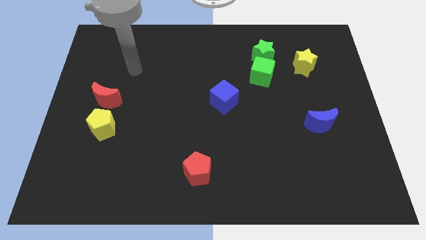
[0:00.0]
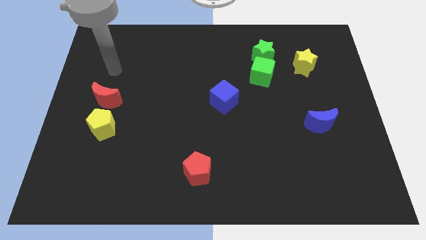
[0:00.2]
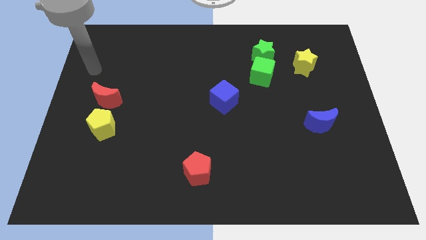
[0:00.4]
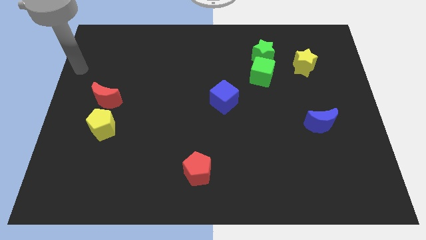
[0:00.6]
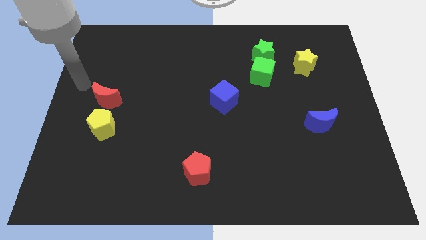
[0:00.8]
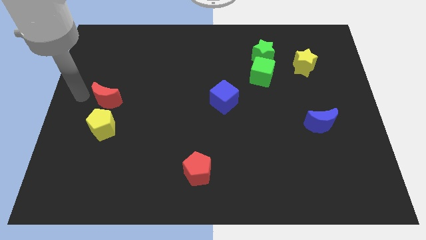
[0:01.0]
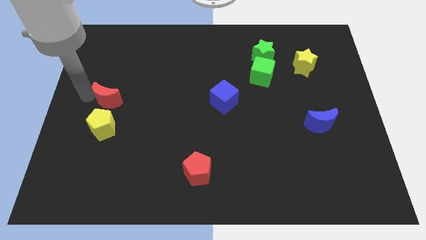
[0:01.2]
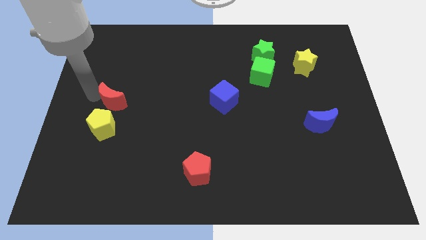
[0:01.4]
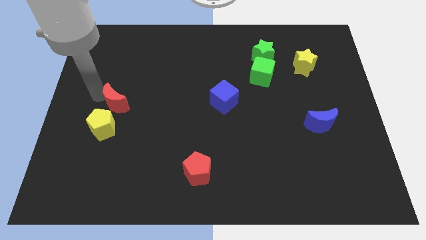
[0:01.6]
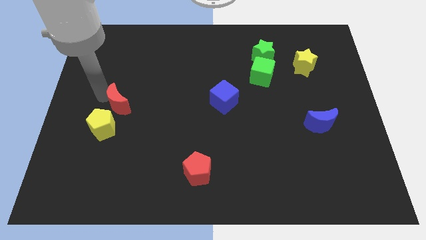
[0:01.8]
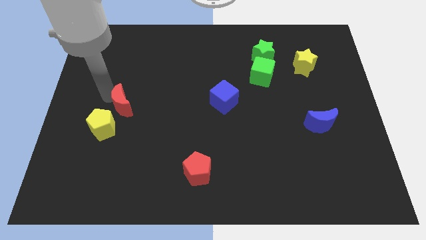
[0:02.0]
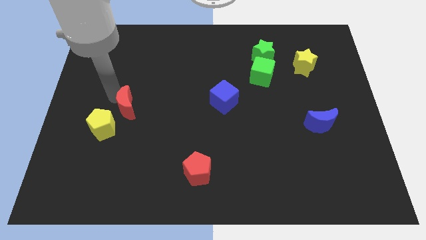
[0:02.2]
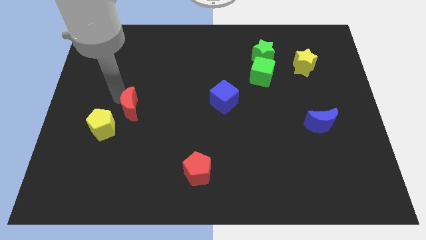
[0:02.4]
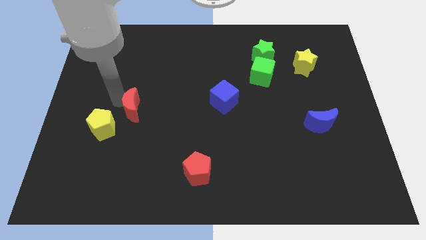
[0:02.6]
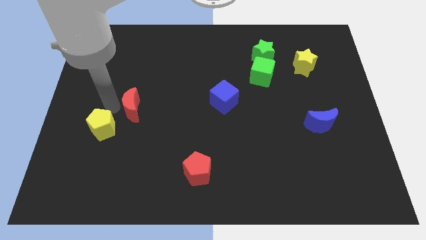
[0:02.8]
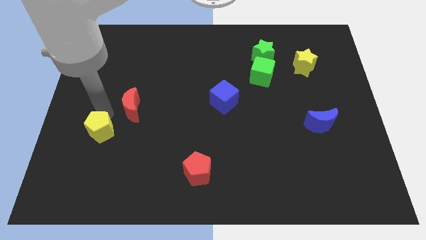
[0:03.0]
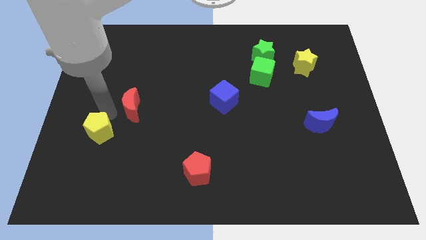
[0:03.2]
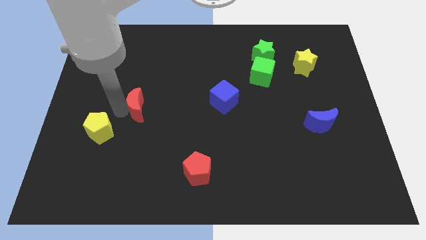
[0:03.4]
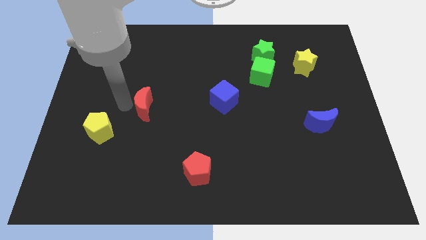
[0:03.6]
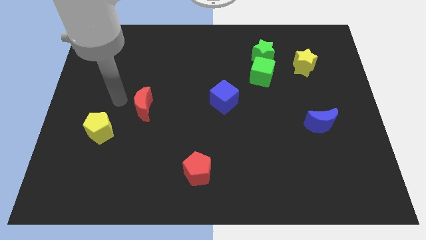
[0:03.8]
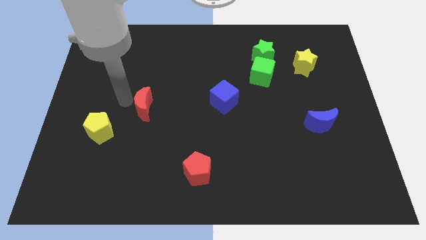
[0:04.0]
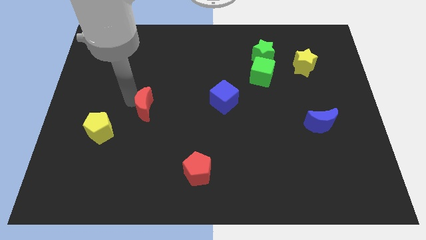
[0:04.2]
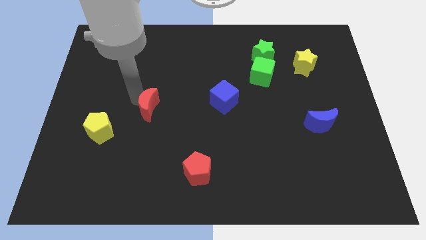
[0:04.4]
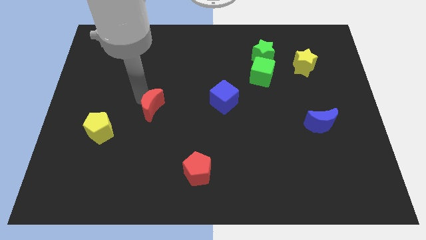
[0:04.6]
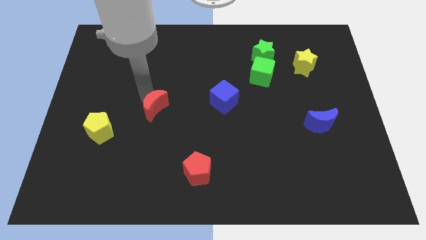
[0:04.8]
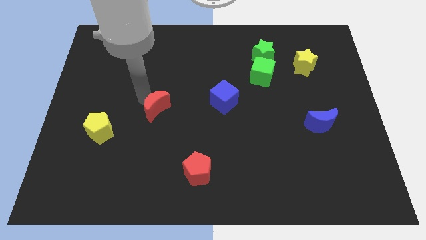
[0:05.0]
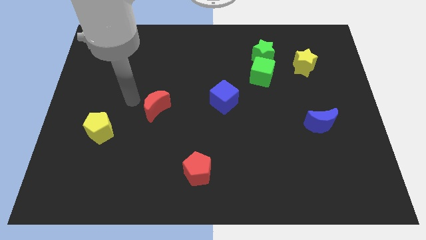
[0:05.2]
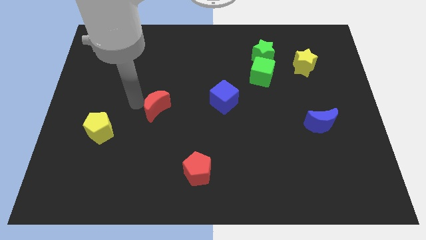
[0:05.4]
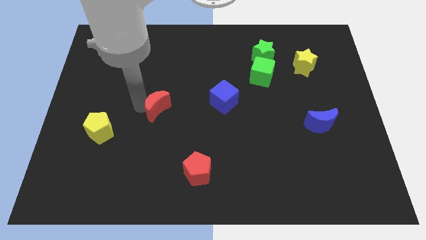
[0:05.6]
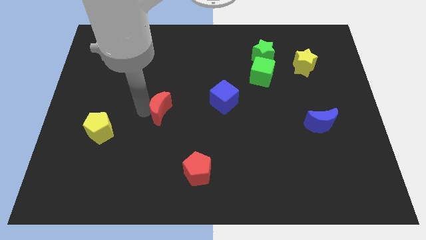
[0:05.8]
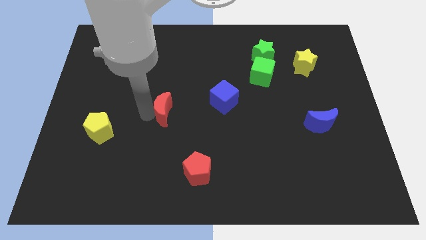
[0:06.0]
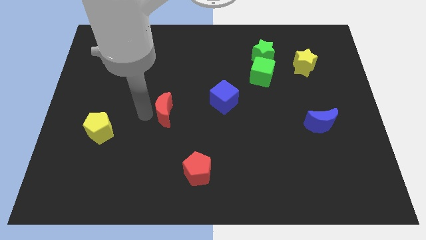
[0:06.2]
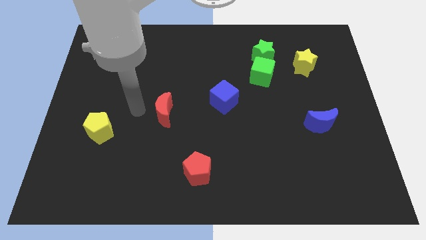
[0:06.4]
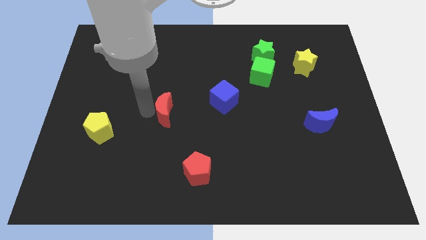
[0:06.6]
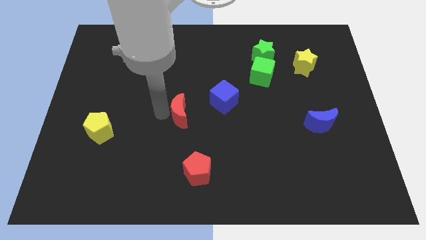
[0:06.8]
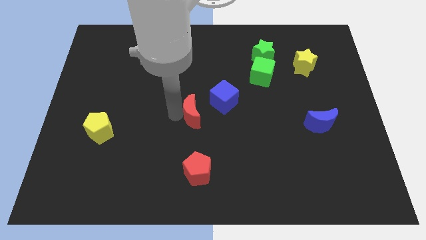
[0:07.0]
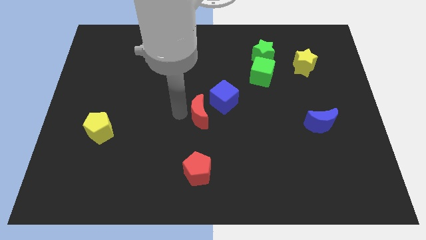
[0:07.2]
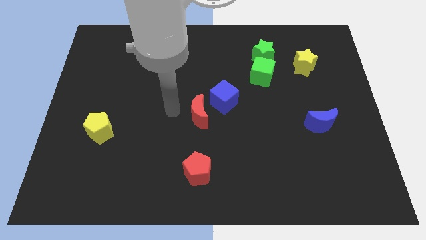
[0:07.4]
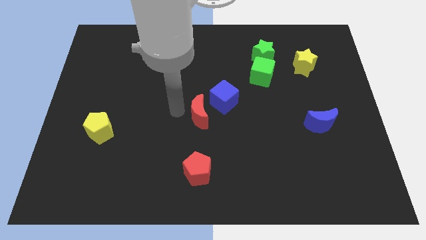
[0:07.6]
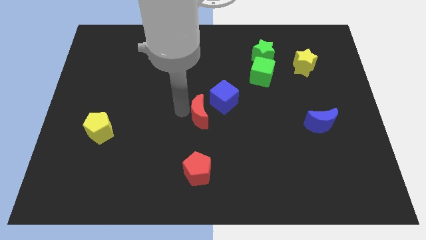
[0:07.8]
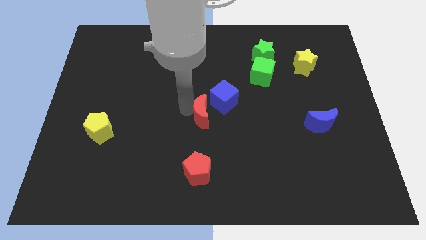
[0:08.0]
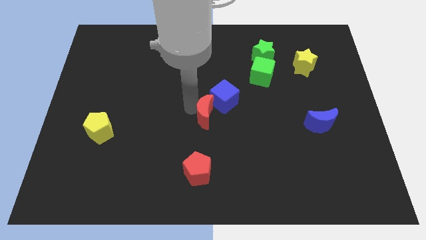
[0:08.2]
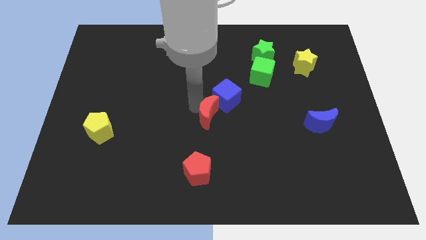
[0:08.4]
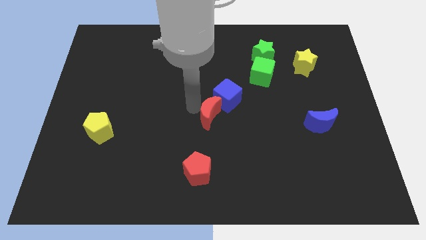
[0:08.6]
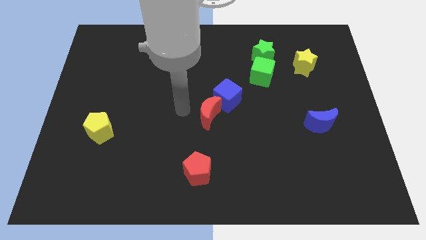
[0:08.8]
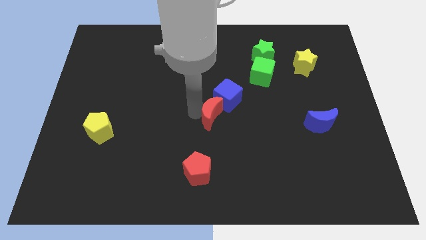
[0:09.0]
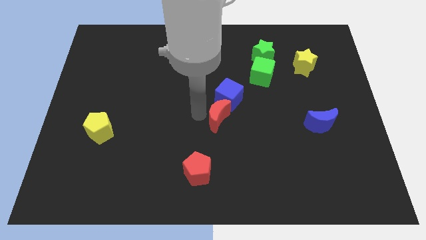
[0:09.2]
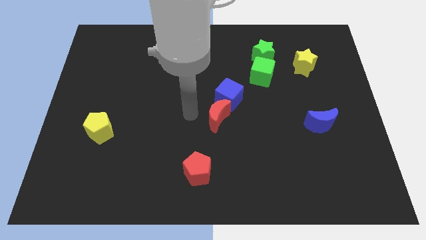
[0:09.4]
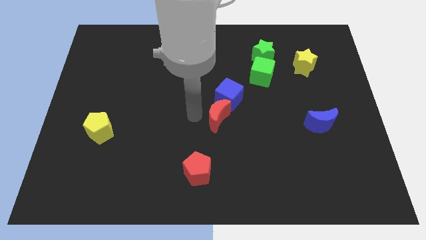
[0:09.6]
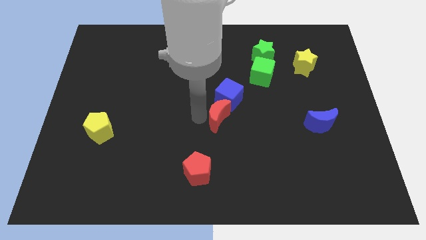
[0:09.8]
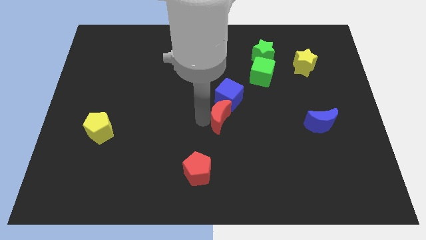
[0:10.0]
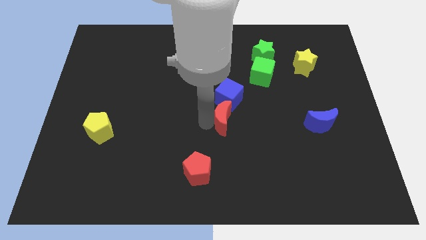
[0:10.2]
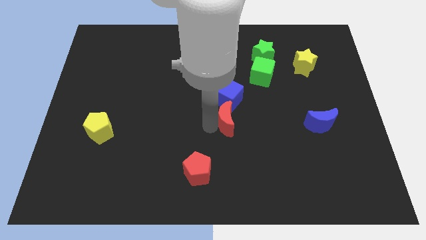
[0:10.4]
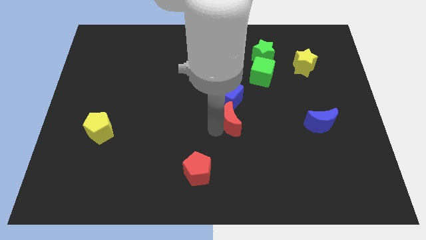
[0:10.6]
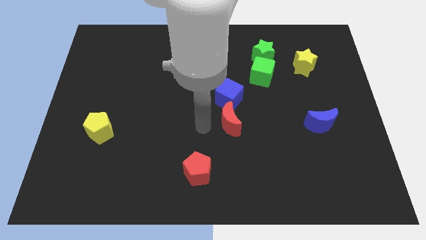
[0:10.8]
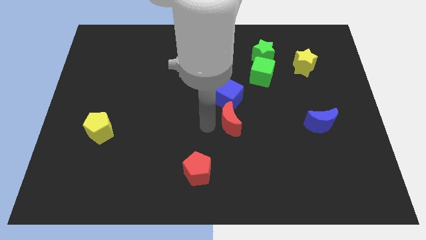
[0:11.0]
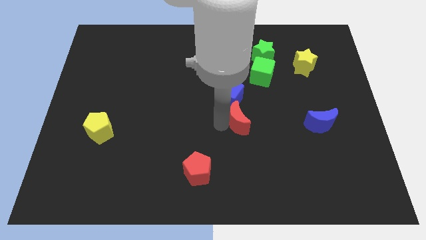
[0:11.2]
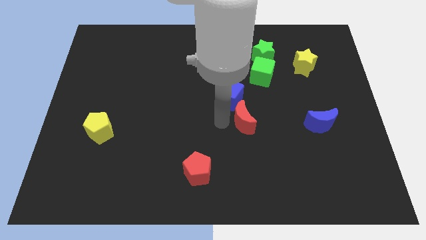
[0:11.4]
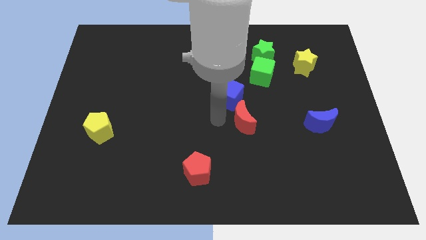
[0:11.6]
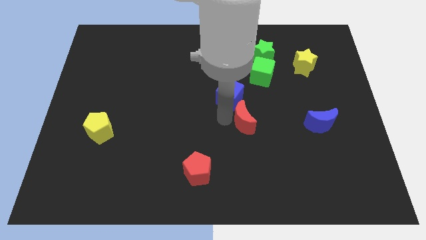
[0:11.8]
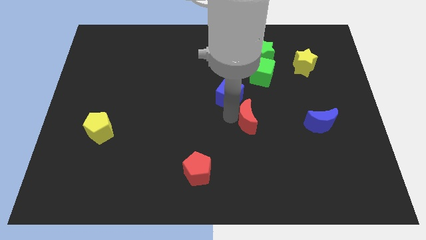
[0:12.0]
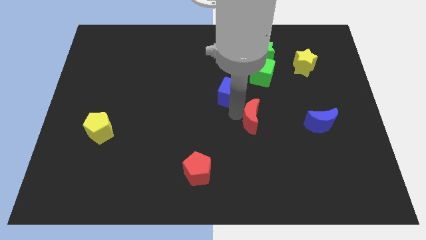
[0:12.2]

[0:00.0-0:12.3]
slide the red moon just left of the blue moon

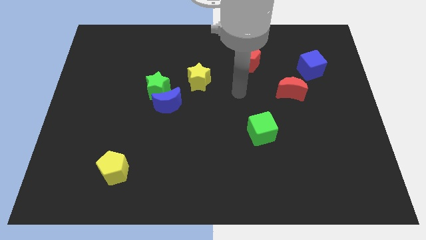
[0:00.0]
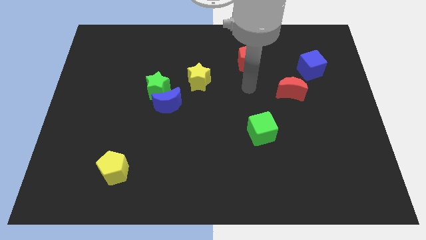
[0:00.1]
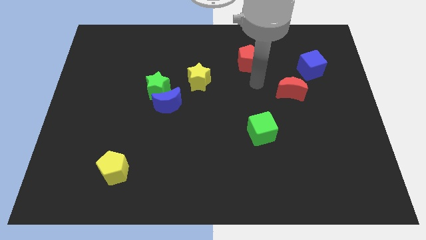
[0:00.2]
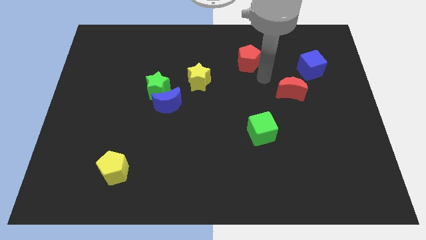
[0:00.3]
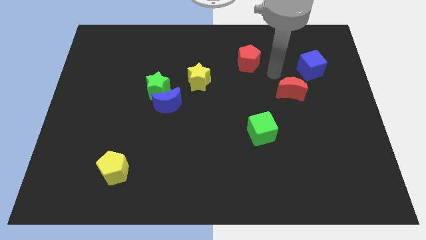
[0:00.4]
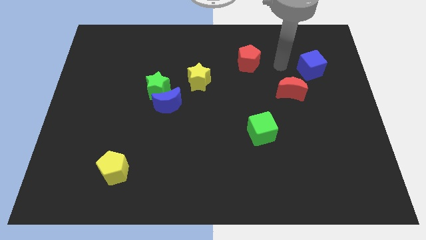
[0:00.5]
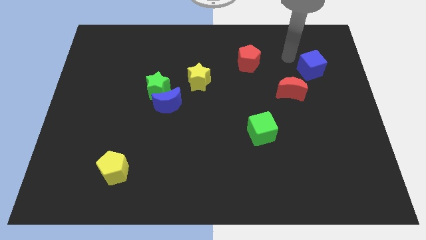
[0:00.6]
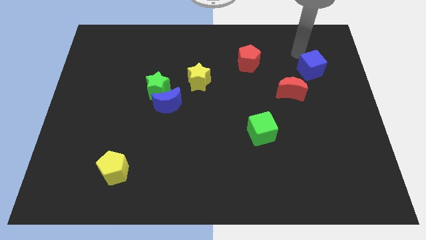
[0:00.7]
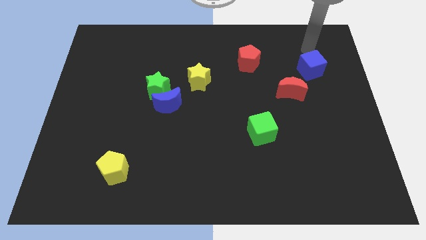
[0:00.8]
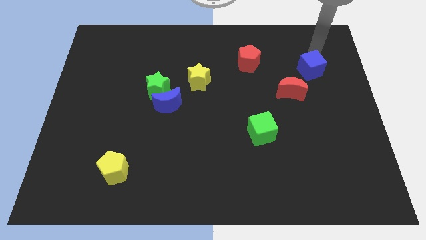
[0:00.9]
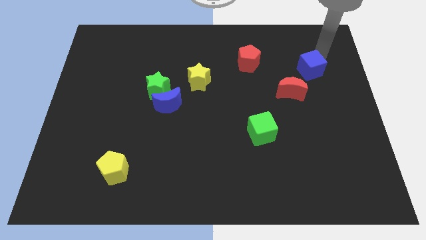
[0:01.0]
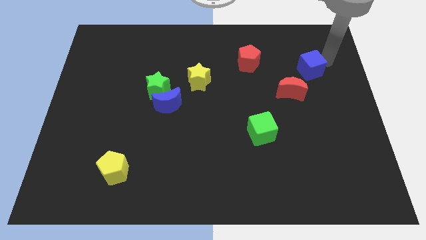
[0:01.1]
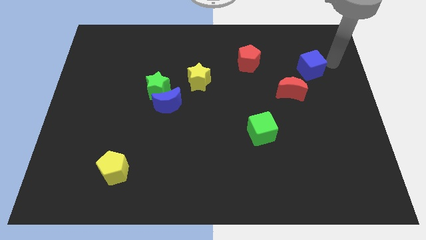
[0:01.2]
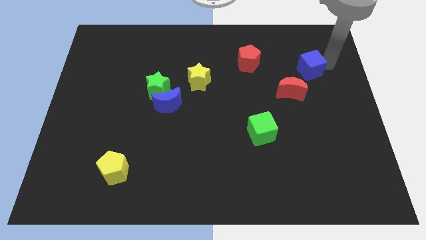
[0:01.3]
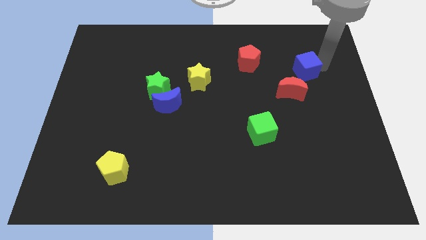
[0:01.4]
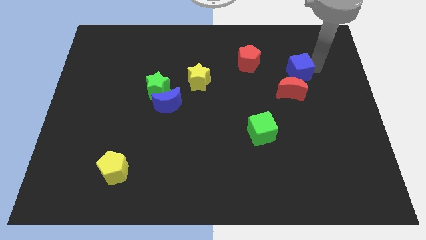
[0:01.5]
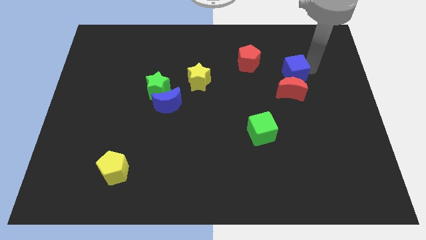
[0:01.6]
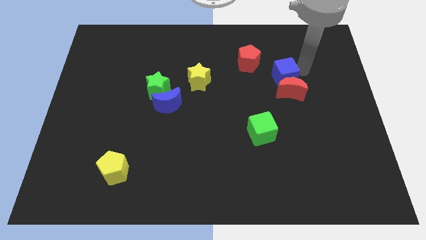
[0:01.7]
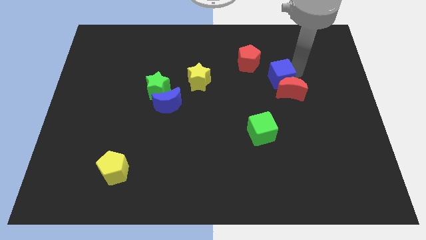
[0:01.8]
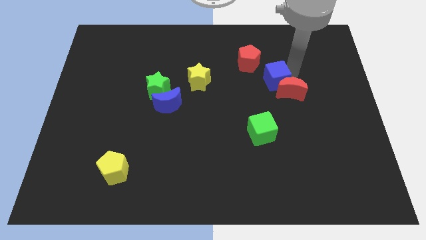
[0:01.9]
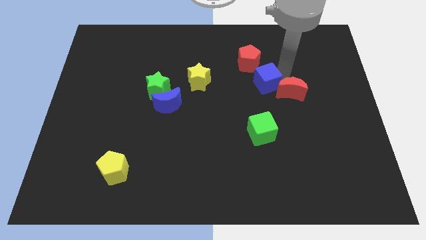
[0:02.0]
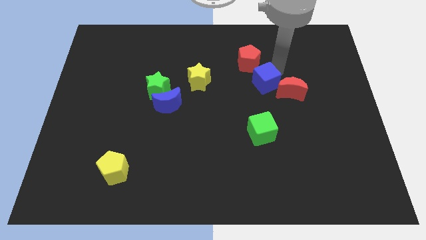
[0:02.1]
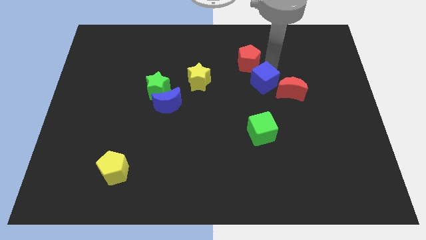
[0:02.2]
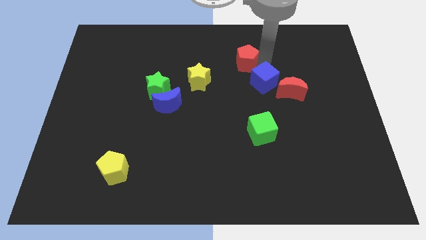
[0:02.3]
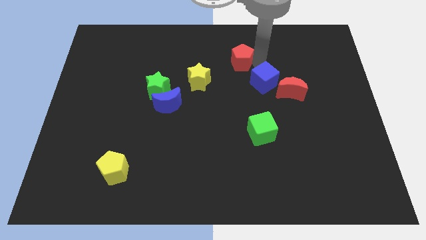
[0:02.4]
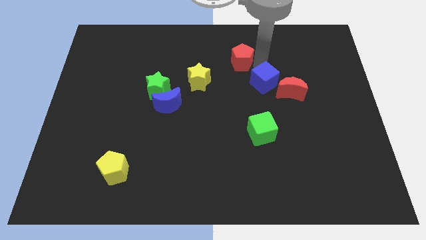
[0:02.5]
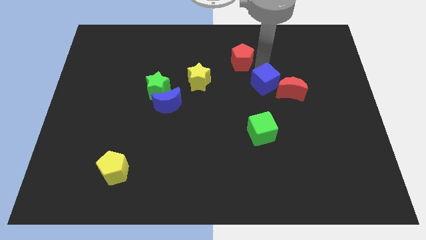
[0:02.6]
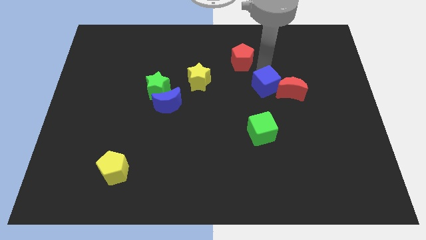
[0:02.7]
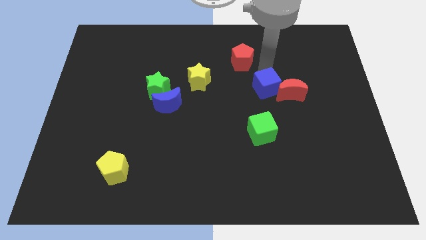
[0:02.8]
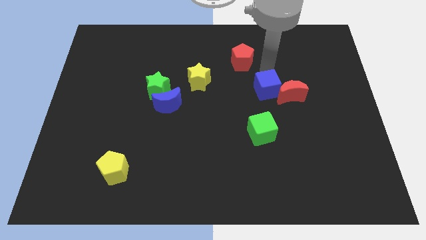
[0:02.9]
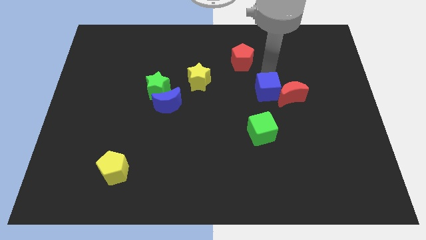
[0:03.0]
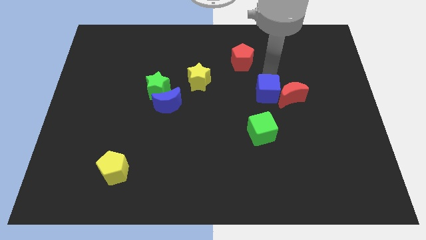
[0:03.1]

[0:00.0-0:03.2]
push the blue cube diagonally down and to the left of the red moon
